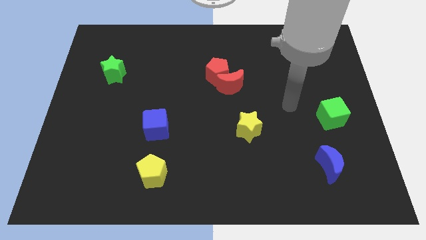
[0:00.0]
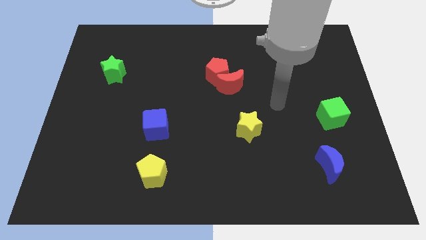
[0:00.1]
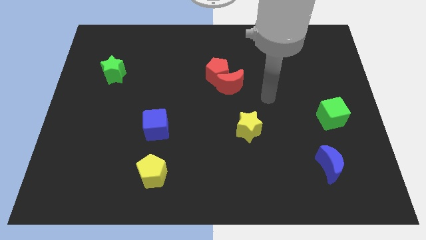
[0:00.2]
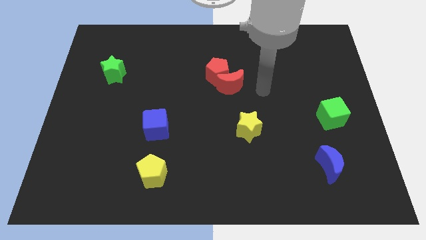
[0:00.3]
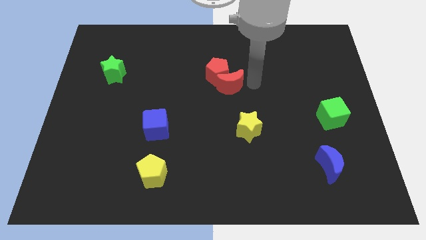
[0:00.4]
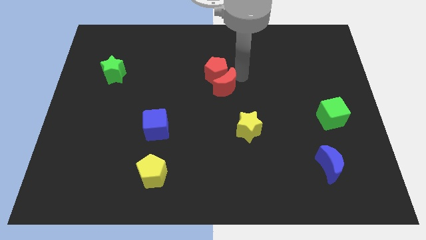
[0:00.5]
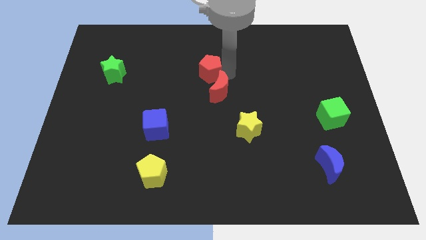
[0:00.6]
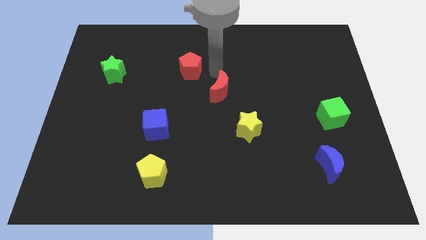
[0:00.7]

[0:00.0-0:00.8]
move the red moon away from the red pentagon

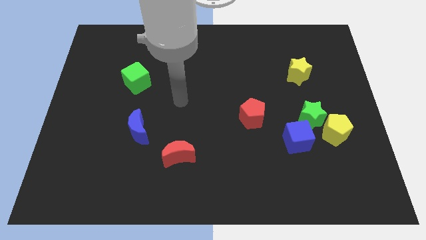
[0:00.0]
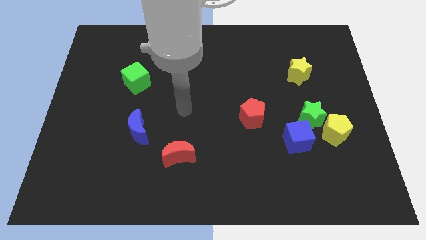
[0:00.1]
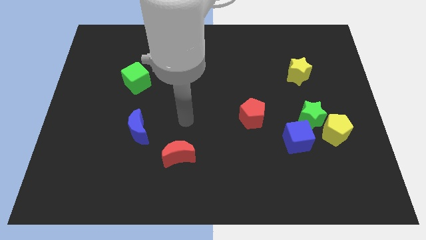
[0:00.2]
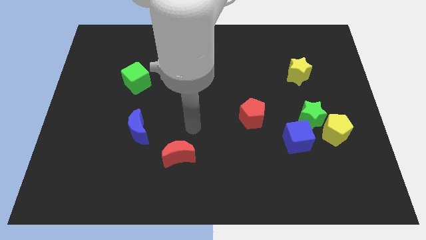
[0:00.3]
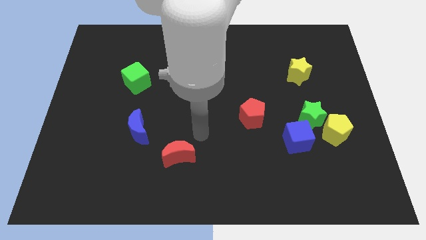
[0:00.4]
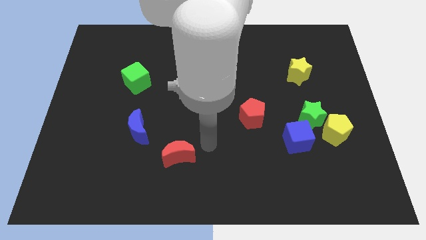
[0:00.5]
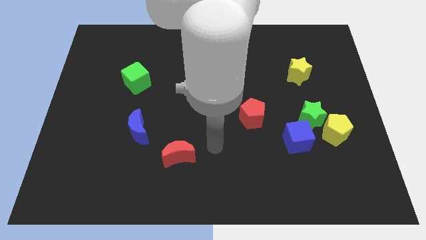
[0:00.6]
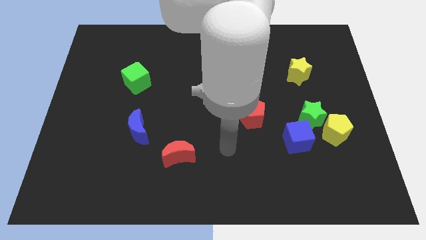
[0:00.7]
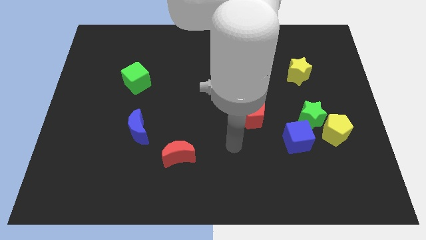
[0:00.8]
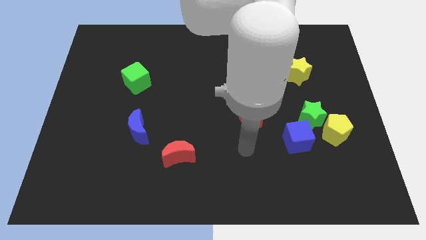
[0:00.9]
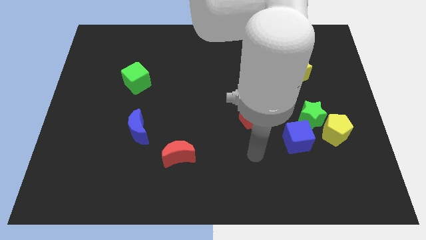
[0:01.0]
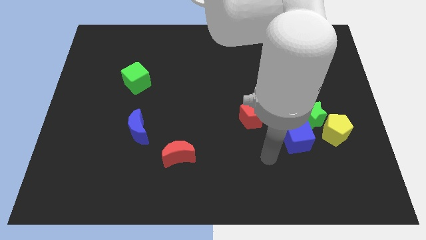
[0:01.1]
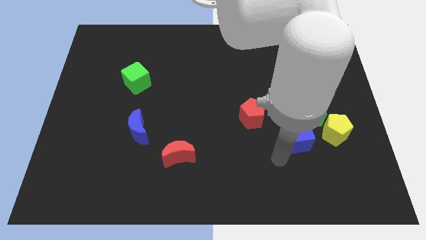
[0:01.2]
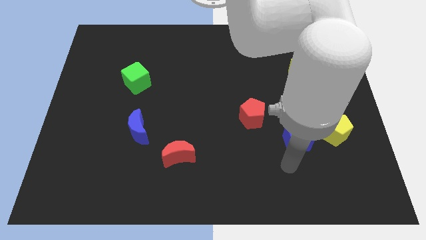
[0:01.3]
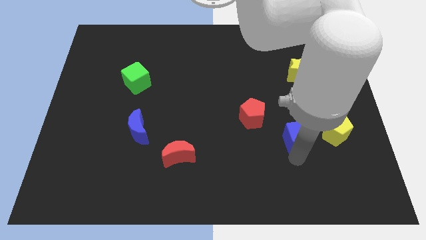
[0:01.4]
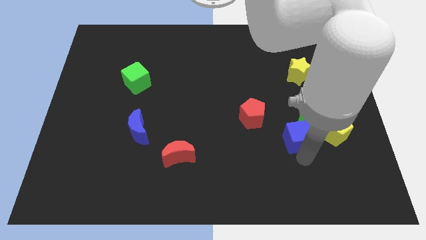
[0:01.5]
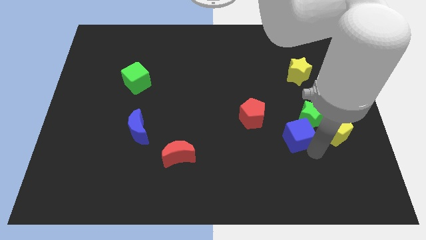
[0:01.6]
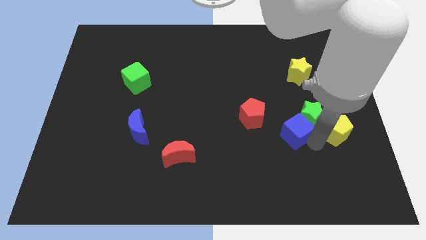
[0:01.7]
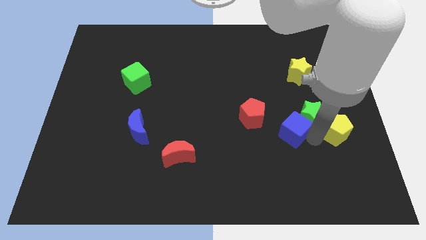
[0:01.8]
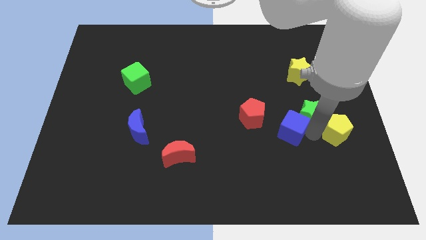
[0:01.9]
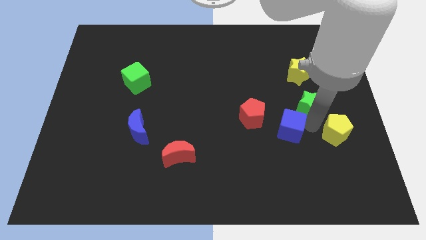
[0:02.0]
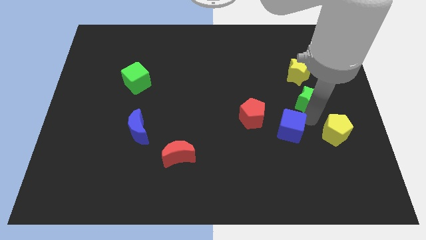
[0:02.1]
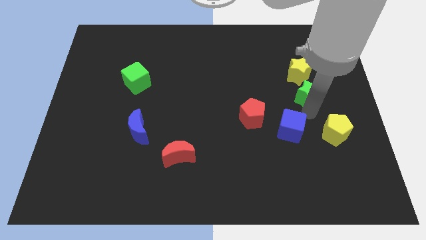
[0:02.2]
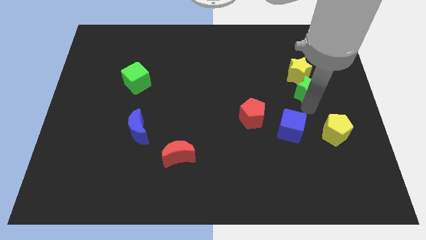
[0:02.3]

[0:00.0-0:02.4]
move the green star away from the yellow pentagon and blue cube

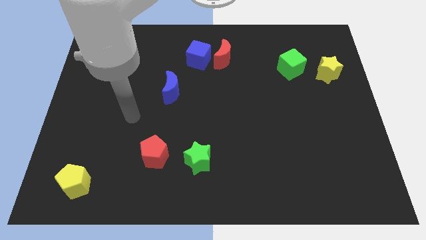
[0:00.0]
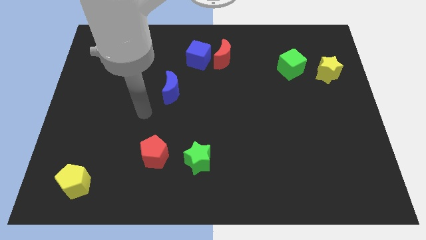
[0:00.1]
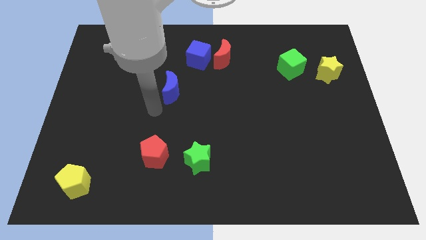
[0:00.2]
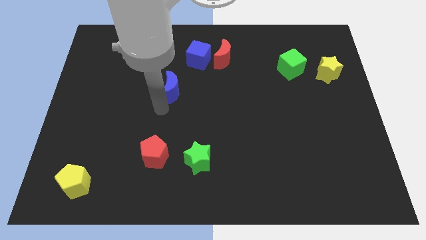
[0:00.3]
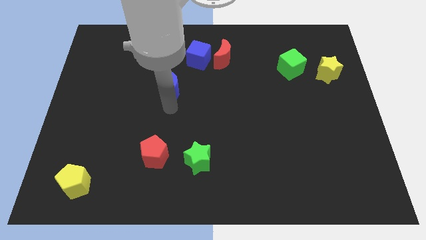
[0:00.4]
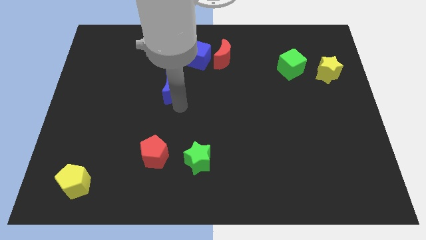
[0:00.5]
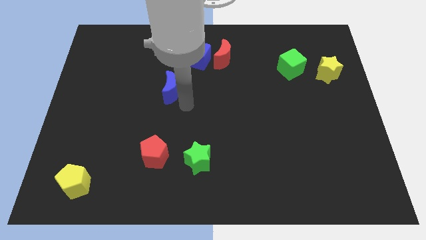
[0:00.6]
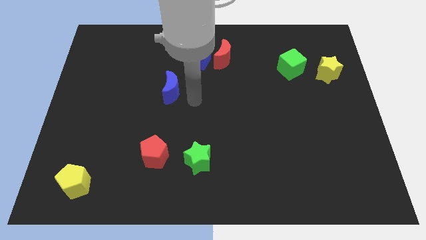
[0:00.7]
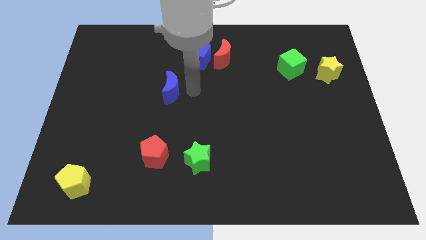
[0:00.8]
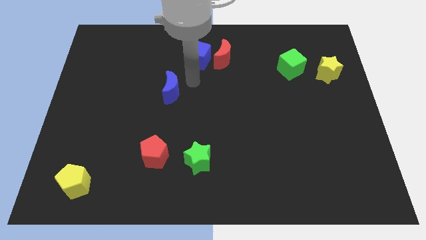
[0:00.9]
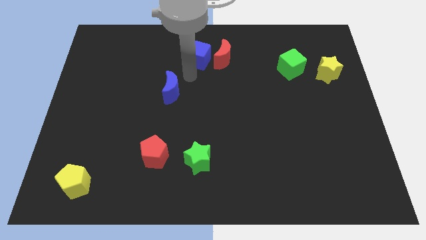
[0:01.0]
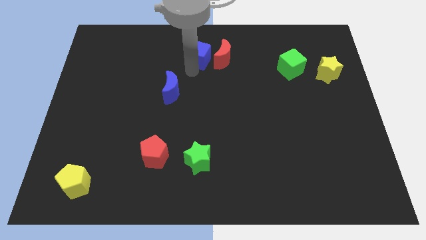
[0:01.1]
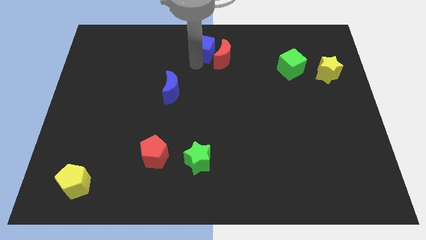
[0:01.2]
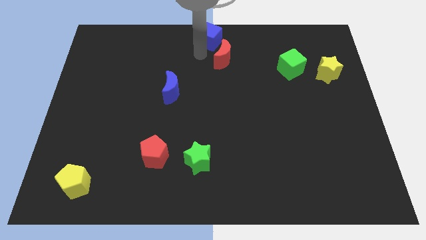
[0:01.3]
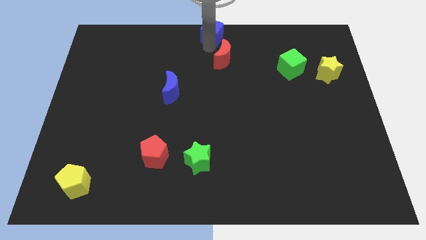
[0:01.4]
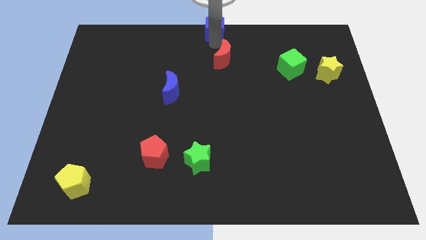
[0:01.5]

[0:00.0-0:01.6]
pull the red moon apart from the blue cube

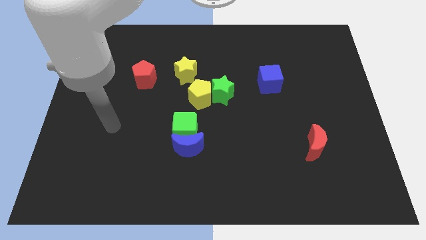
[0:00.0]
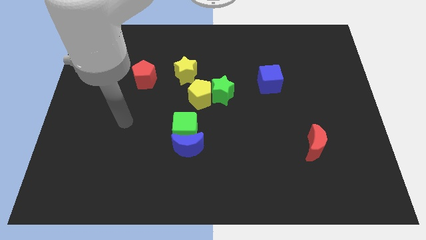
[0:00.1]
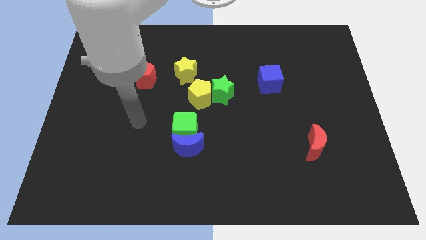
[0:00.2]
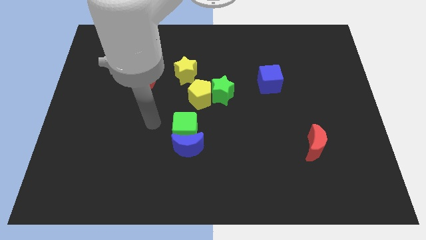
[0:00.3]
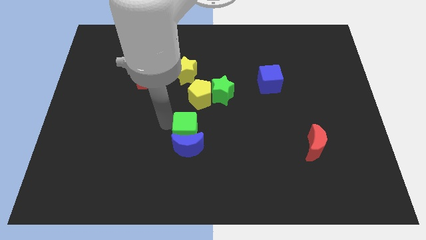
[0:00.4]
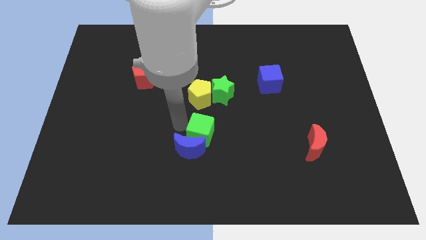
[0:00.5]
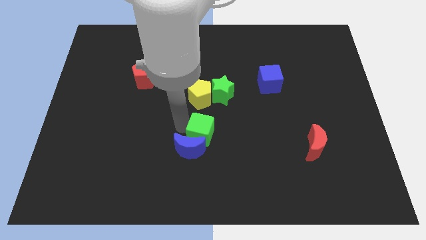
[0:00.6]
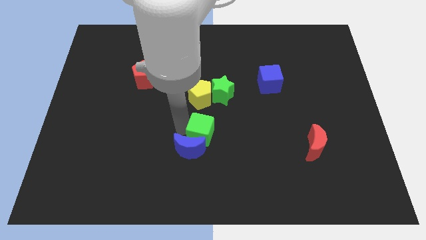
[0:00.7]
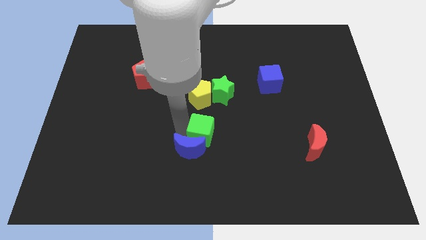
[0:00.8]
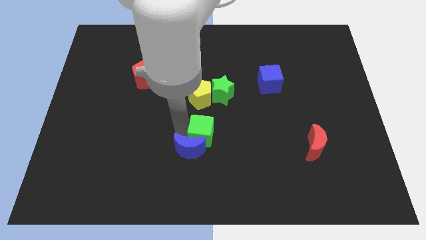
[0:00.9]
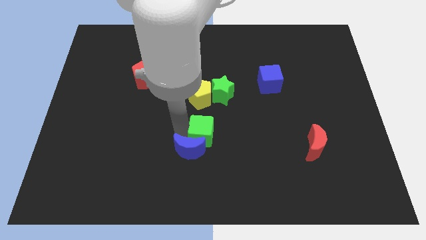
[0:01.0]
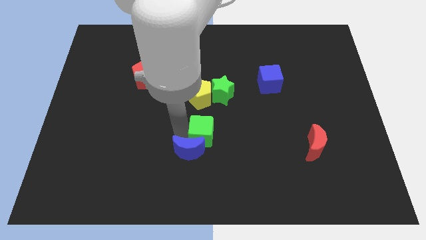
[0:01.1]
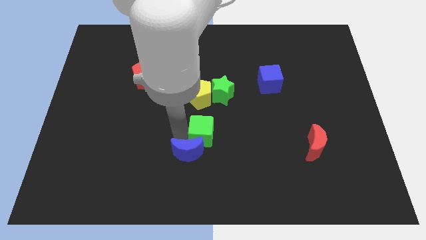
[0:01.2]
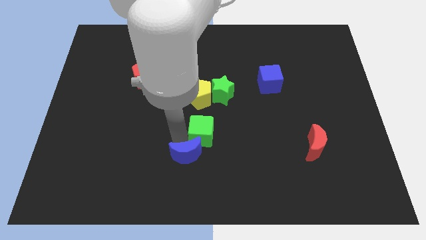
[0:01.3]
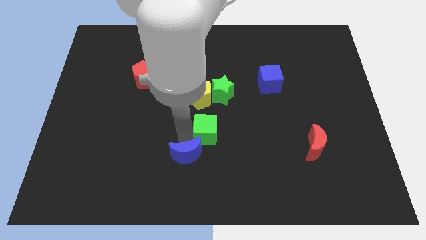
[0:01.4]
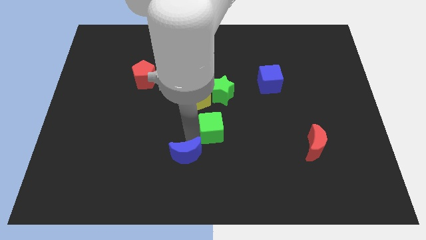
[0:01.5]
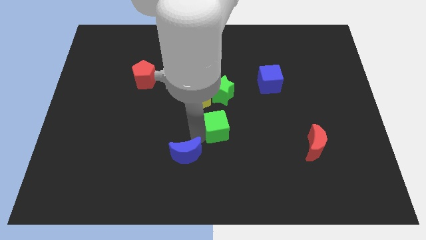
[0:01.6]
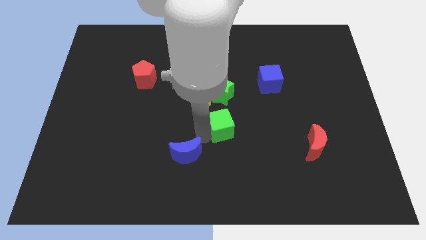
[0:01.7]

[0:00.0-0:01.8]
separate the blue moon from the green cube

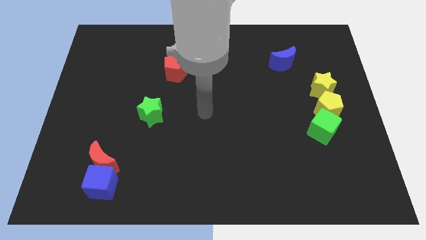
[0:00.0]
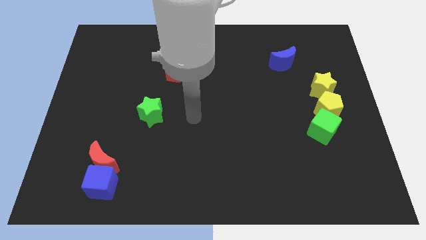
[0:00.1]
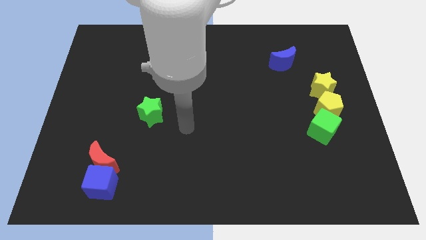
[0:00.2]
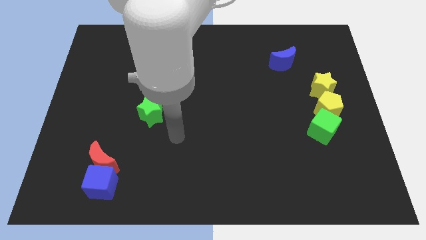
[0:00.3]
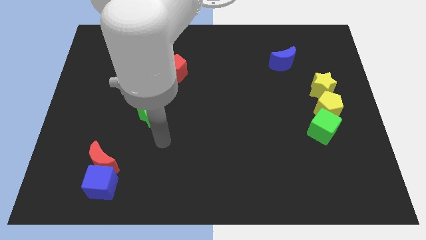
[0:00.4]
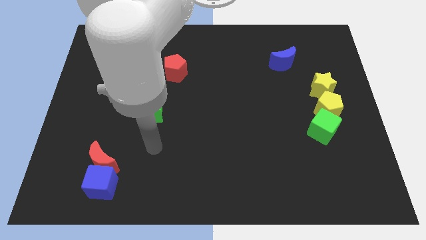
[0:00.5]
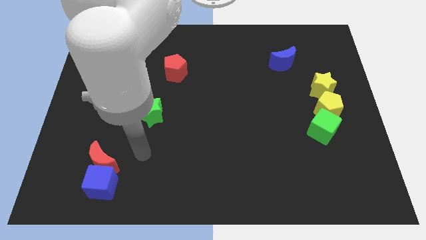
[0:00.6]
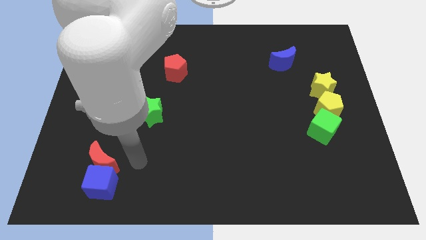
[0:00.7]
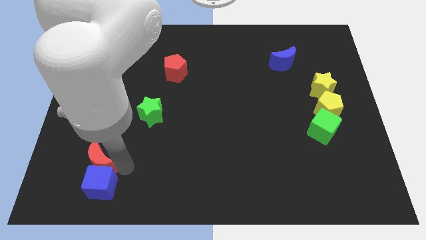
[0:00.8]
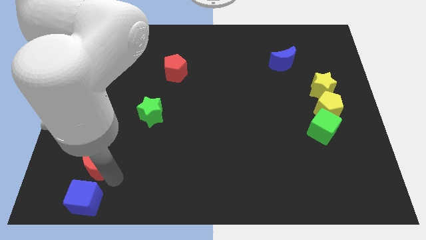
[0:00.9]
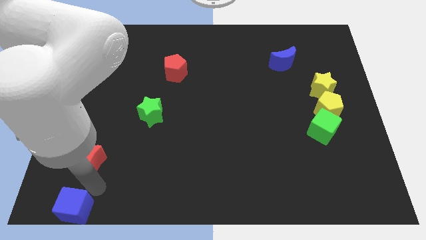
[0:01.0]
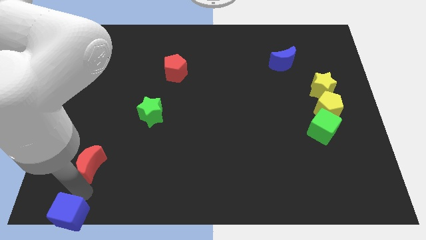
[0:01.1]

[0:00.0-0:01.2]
move the red moon away from the blue cube

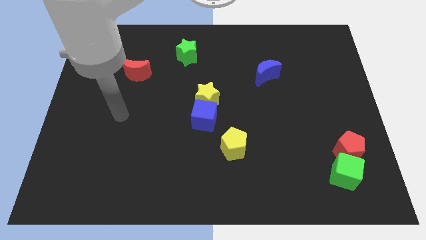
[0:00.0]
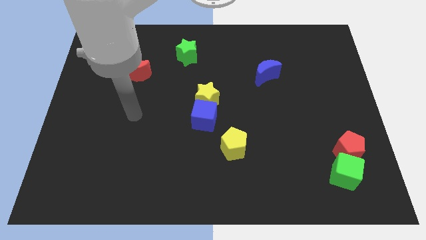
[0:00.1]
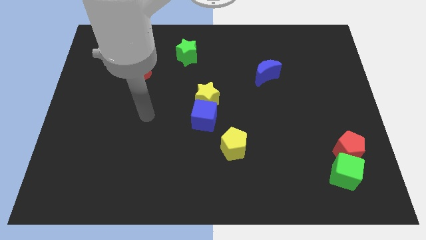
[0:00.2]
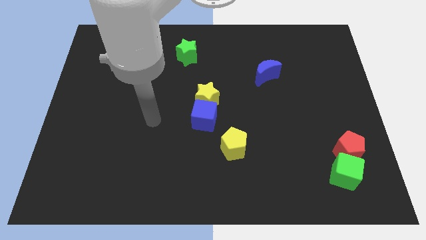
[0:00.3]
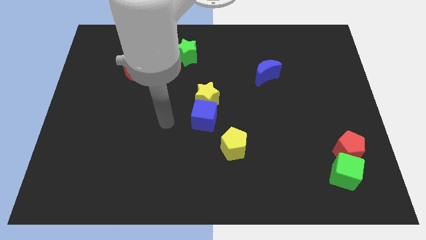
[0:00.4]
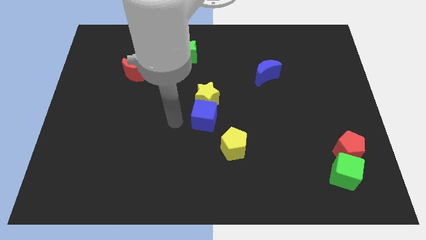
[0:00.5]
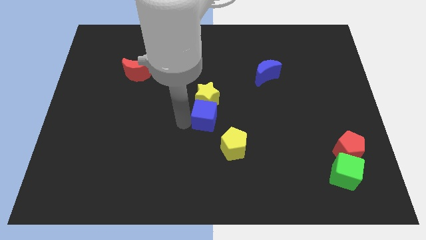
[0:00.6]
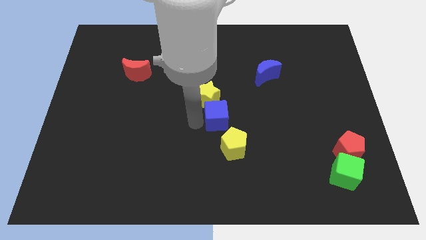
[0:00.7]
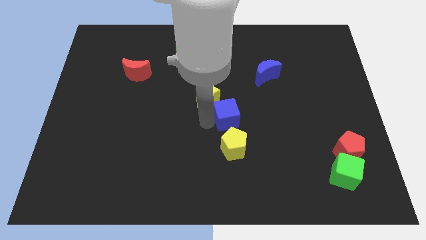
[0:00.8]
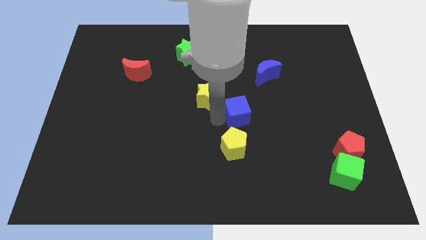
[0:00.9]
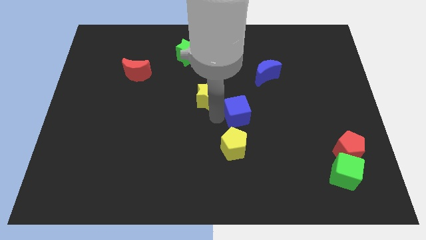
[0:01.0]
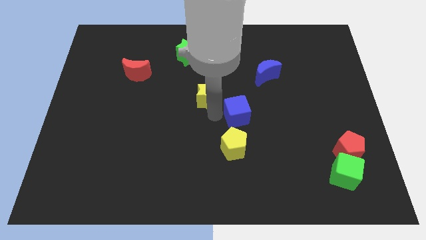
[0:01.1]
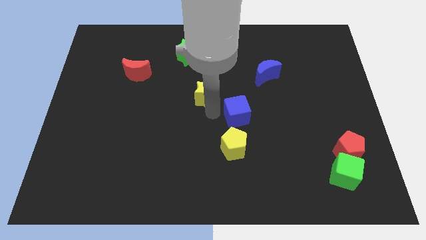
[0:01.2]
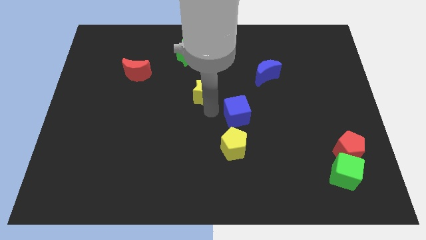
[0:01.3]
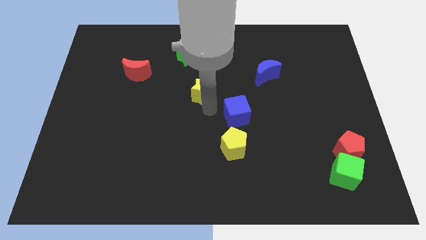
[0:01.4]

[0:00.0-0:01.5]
move the yellow star away from the blue cube

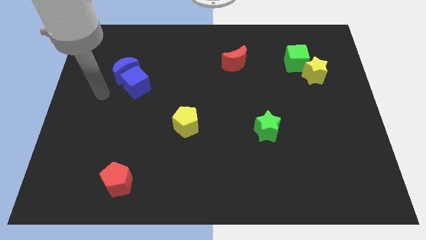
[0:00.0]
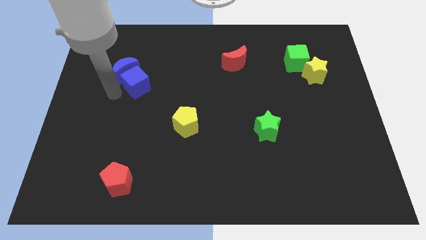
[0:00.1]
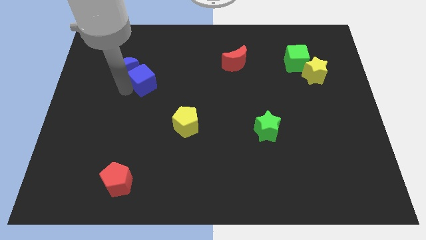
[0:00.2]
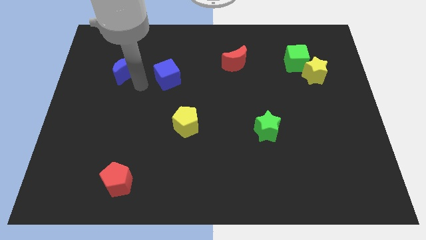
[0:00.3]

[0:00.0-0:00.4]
move the blue moon away from the blue cube
